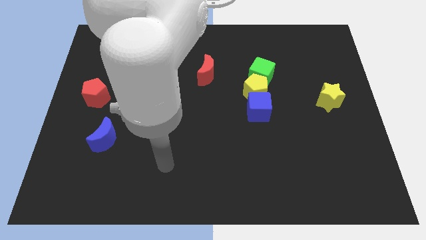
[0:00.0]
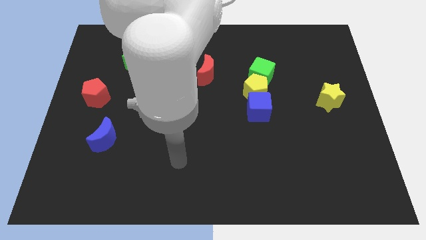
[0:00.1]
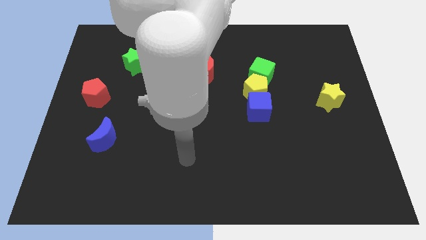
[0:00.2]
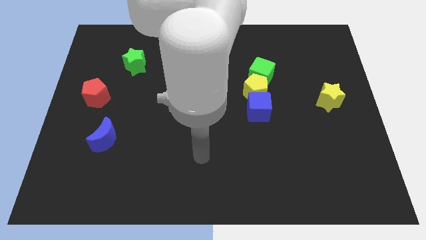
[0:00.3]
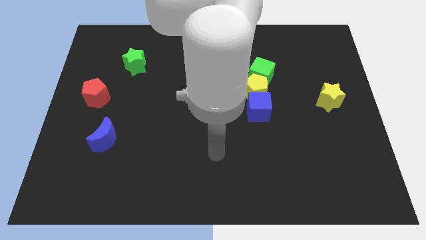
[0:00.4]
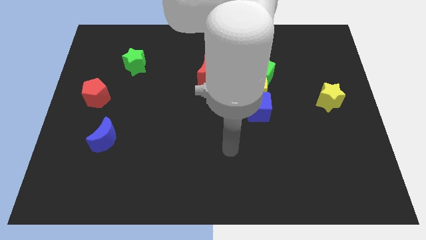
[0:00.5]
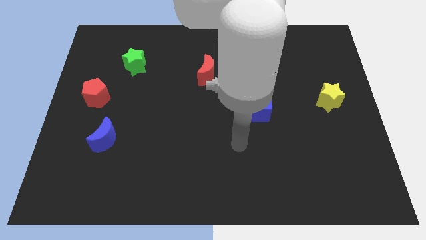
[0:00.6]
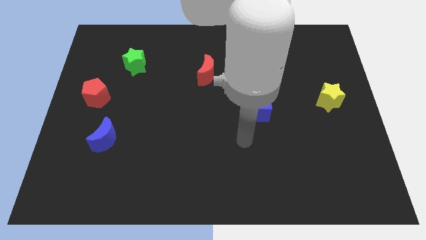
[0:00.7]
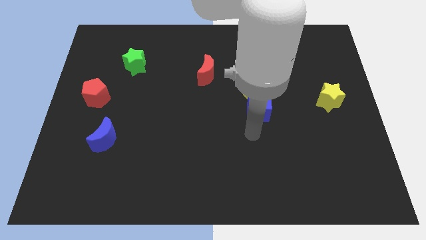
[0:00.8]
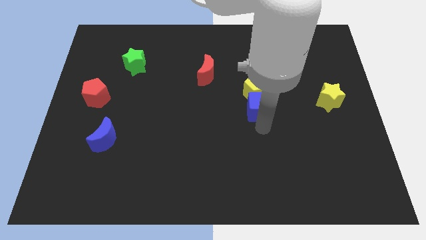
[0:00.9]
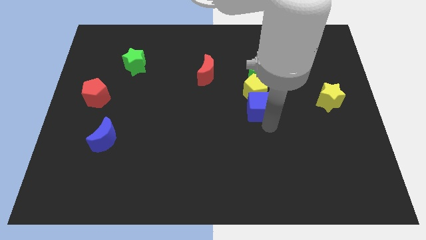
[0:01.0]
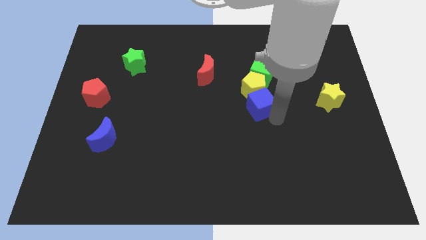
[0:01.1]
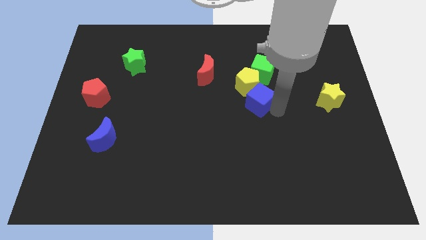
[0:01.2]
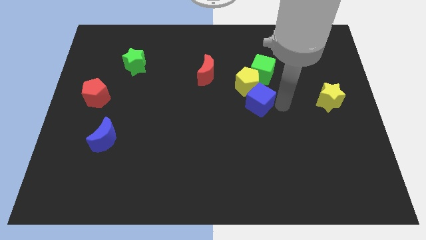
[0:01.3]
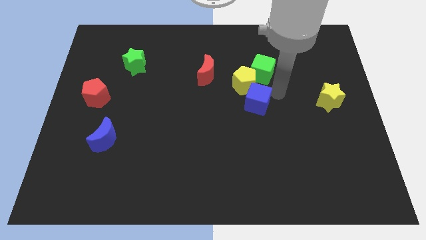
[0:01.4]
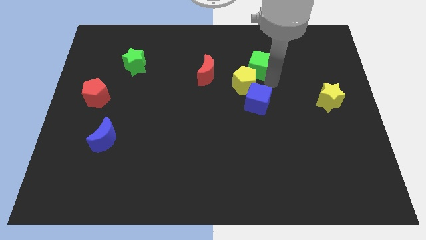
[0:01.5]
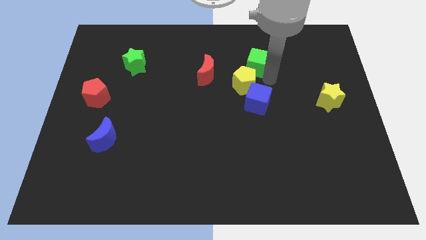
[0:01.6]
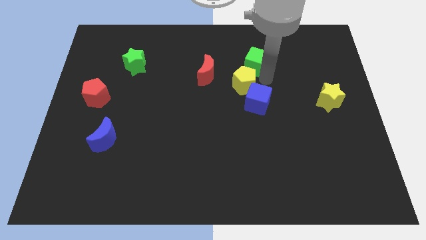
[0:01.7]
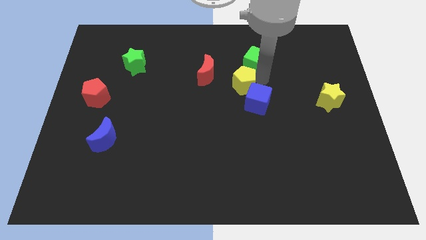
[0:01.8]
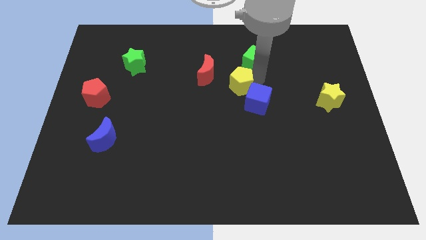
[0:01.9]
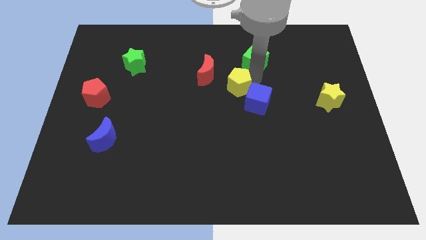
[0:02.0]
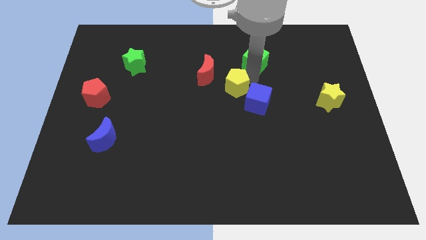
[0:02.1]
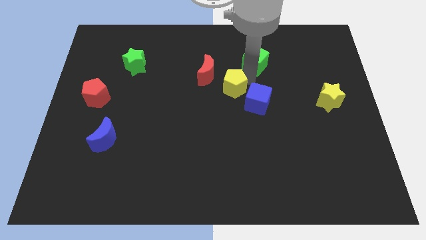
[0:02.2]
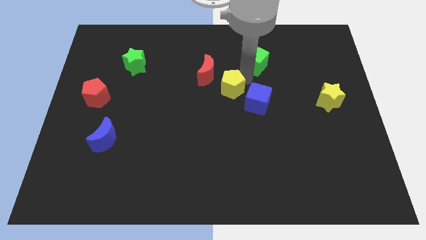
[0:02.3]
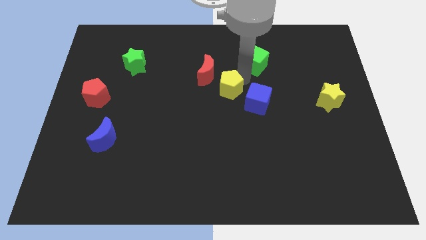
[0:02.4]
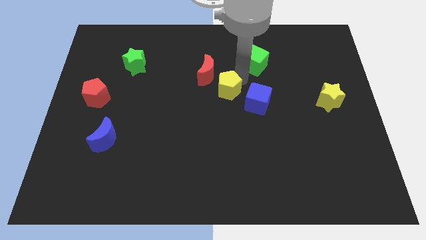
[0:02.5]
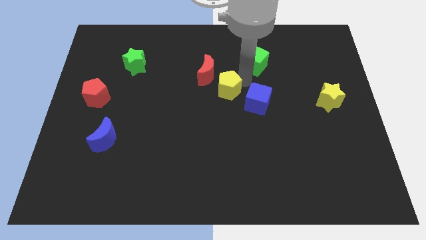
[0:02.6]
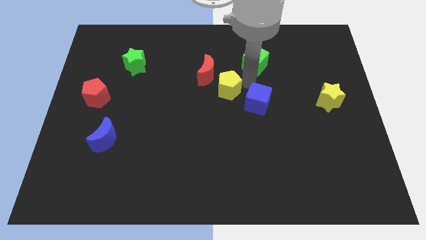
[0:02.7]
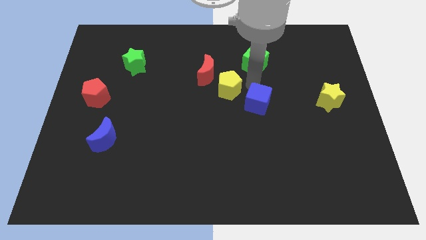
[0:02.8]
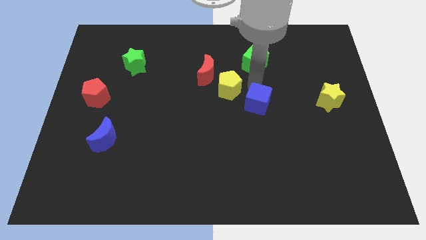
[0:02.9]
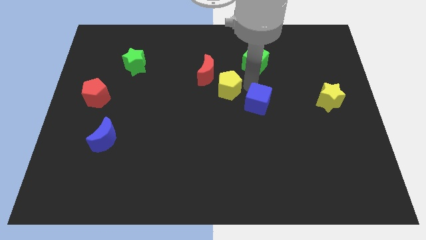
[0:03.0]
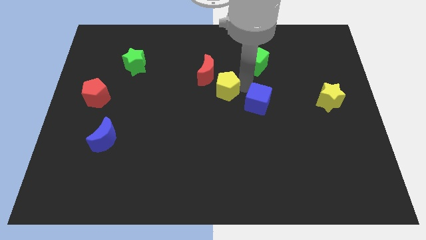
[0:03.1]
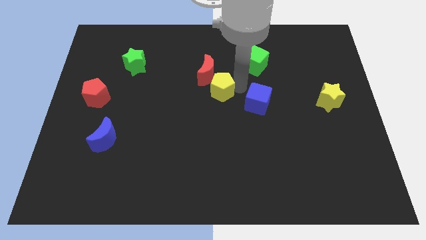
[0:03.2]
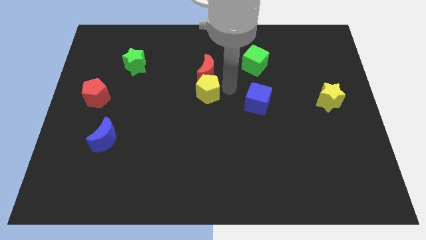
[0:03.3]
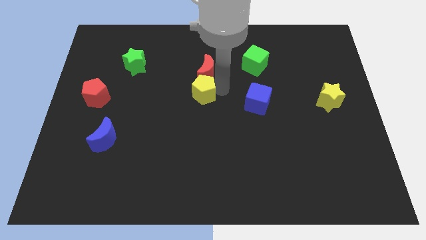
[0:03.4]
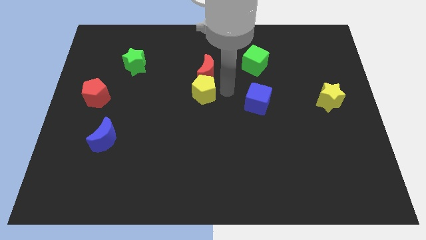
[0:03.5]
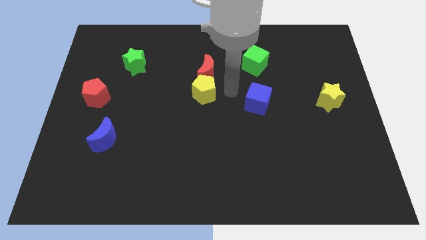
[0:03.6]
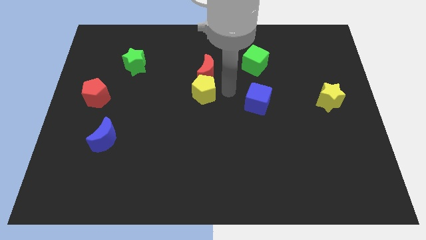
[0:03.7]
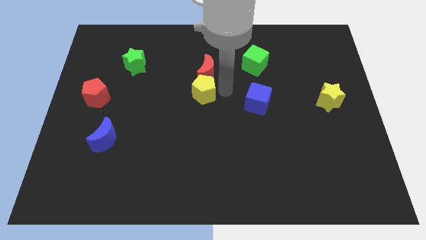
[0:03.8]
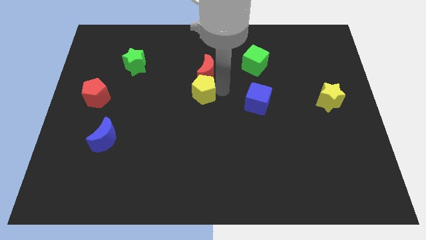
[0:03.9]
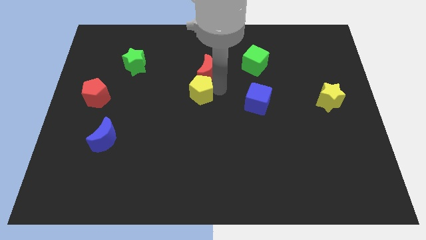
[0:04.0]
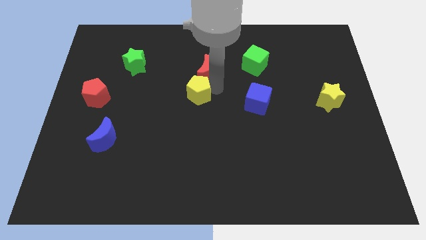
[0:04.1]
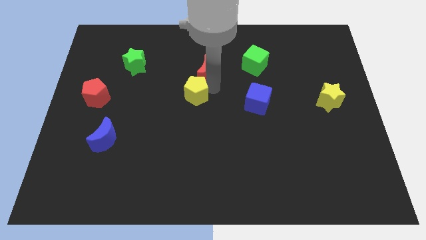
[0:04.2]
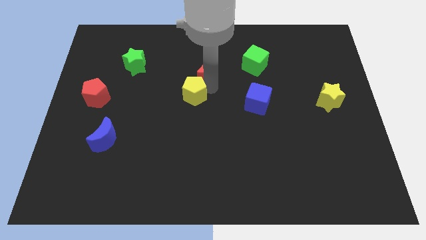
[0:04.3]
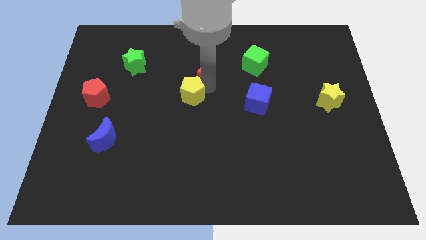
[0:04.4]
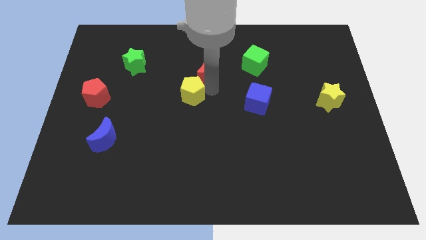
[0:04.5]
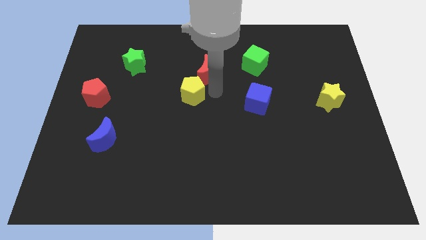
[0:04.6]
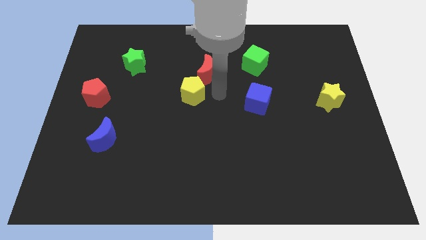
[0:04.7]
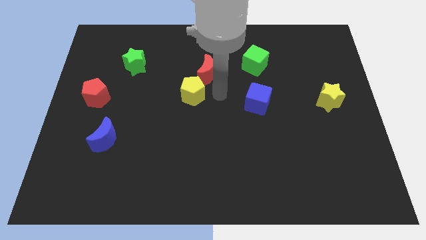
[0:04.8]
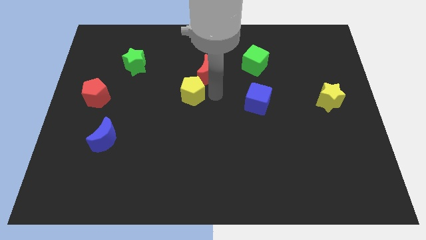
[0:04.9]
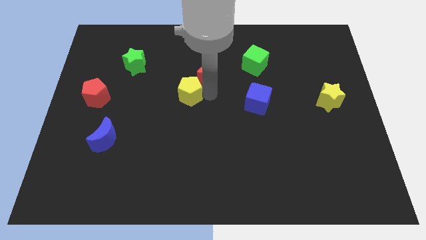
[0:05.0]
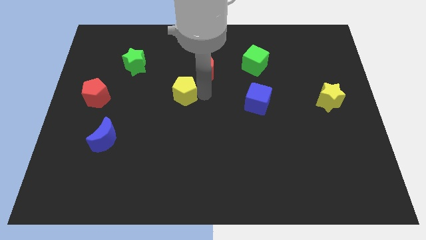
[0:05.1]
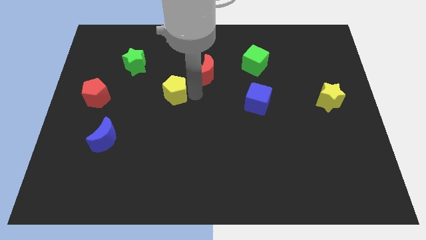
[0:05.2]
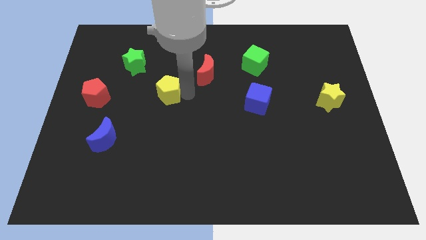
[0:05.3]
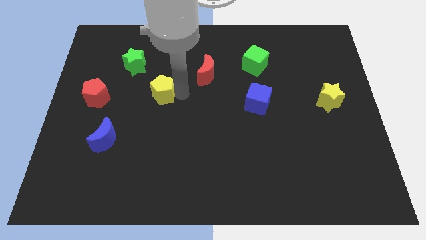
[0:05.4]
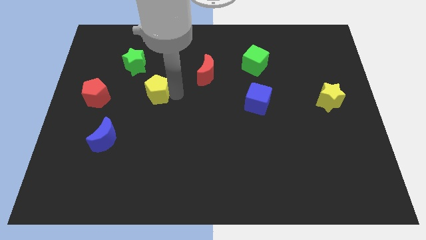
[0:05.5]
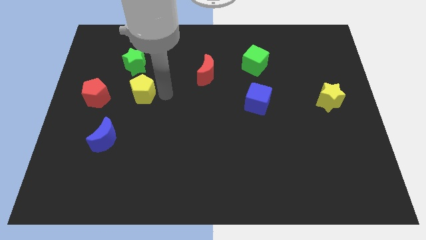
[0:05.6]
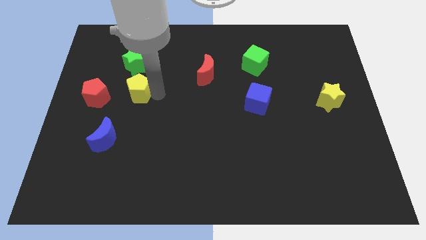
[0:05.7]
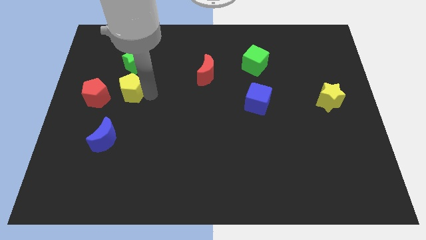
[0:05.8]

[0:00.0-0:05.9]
push the yellow pentagon to the top right side of the red pentagon
